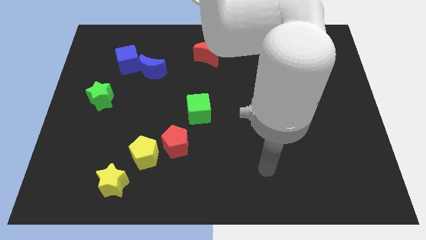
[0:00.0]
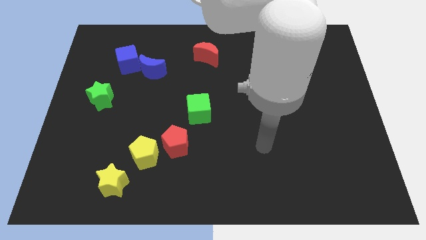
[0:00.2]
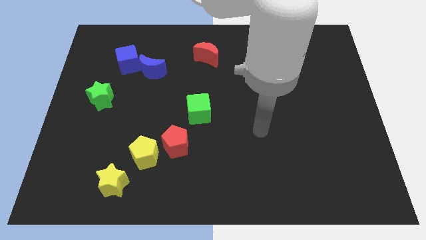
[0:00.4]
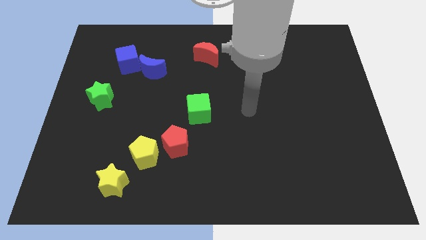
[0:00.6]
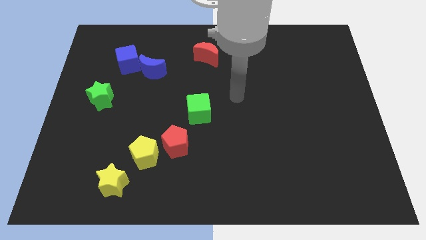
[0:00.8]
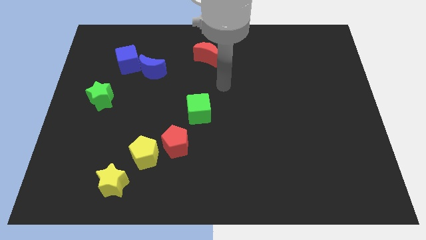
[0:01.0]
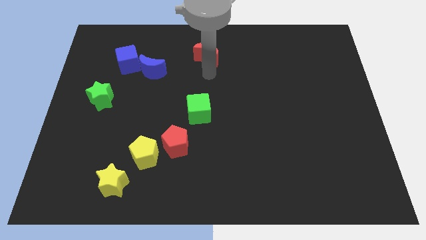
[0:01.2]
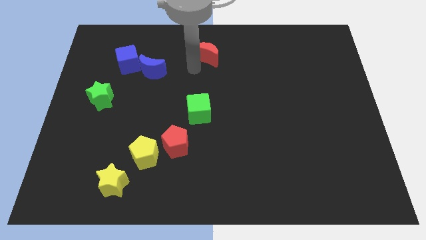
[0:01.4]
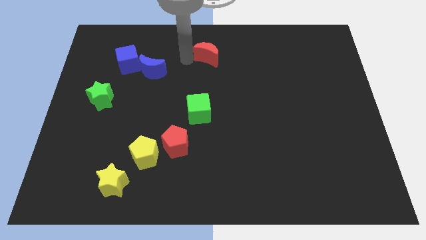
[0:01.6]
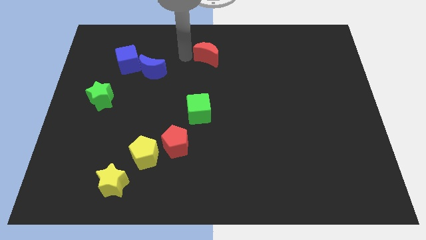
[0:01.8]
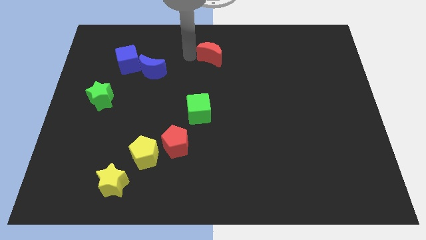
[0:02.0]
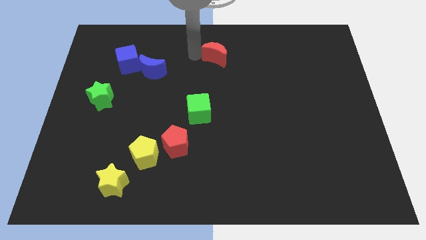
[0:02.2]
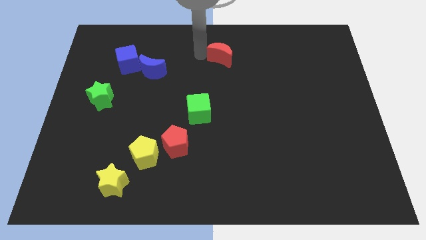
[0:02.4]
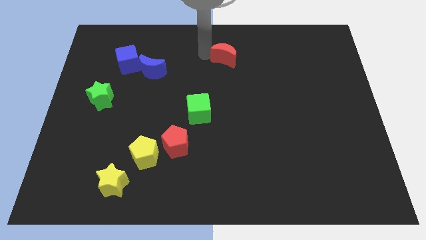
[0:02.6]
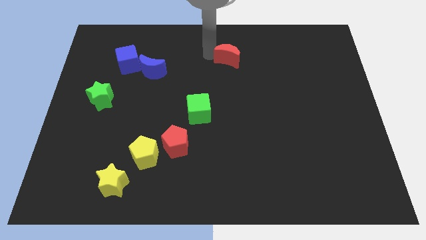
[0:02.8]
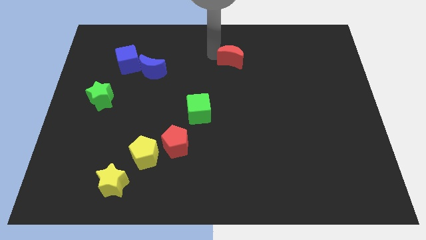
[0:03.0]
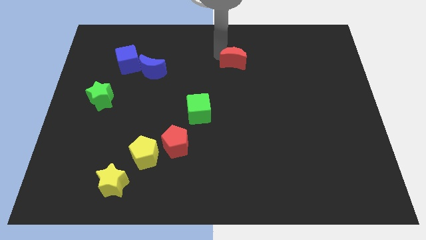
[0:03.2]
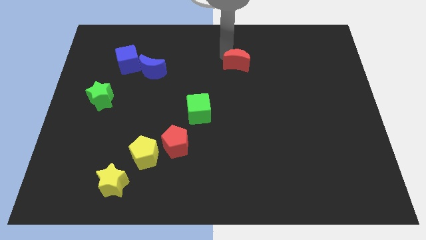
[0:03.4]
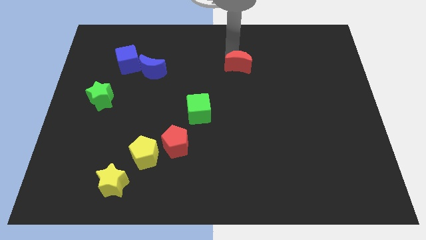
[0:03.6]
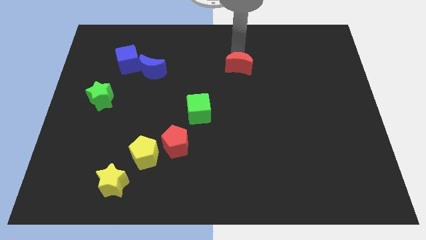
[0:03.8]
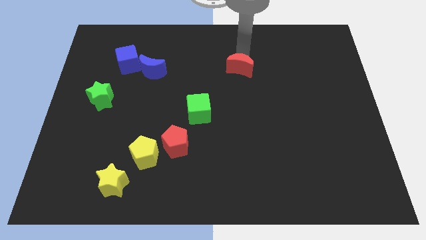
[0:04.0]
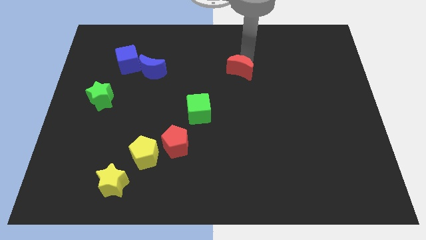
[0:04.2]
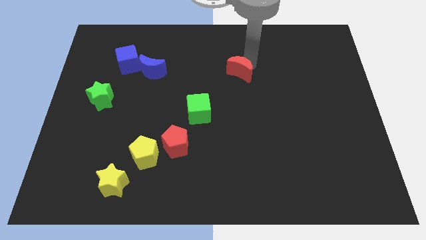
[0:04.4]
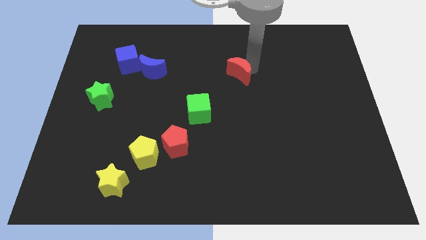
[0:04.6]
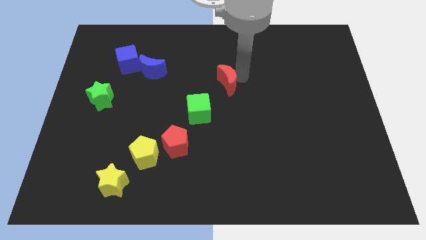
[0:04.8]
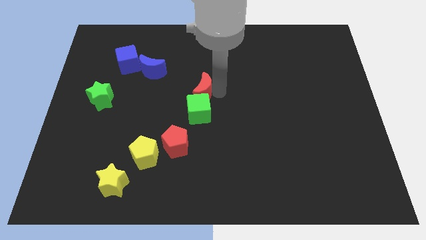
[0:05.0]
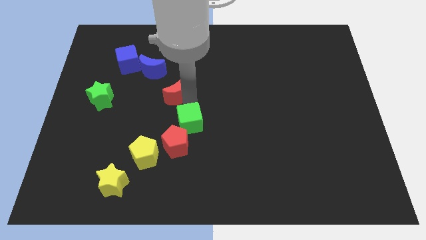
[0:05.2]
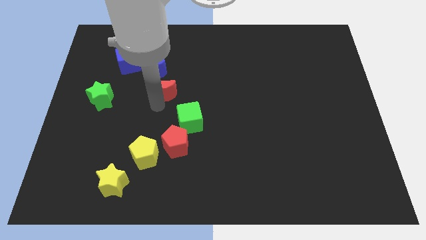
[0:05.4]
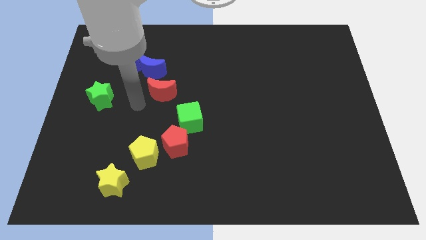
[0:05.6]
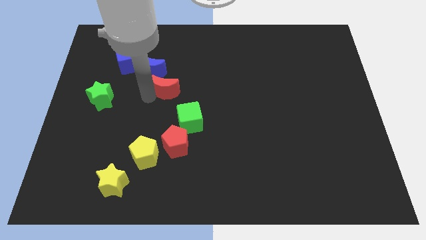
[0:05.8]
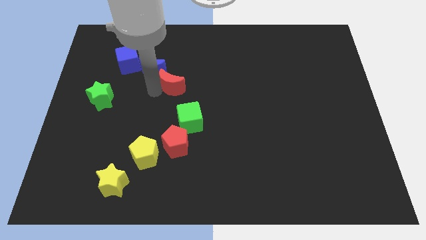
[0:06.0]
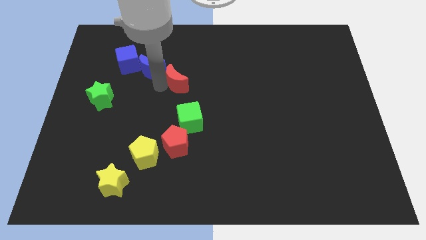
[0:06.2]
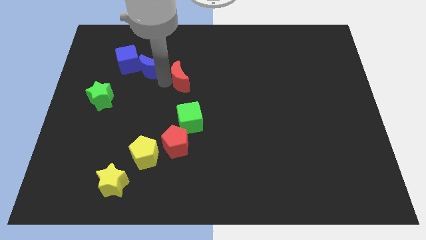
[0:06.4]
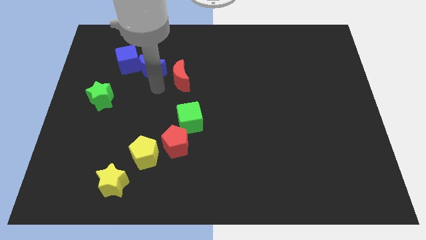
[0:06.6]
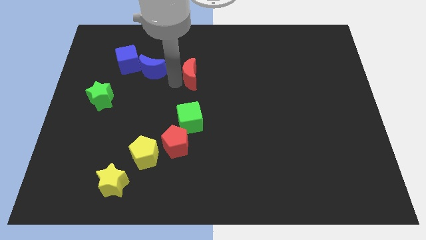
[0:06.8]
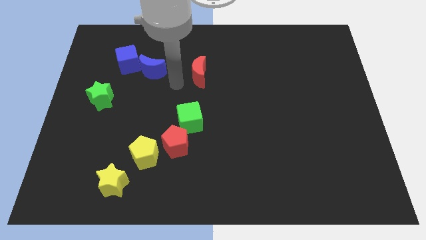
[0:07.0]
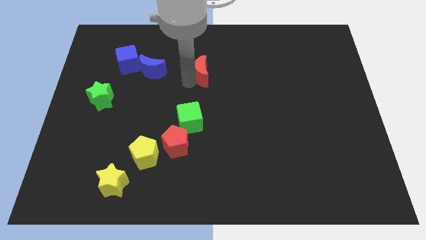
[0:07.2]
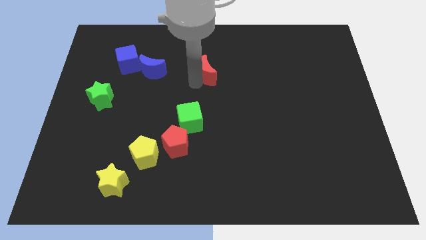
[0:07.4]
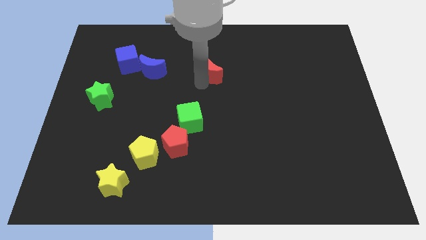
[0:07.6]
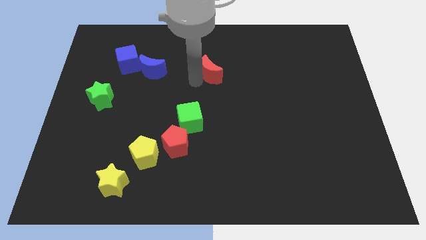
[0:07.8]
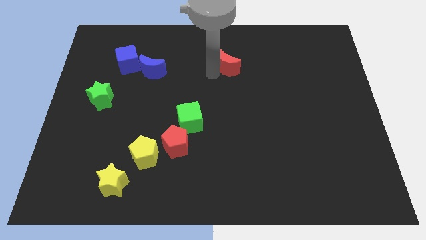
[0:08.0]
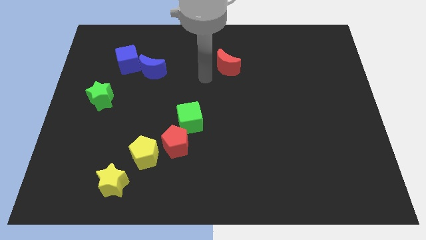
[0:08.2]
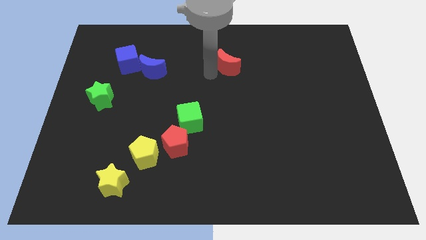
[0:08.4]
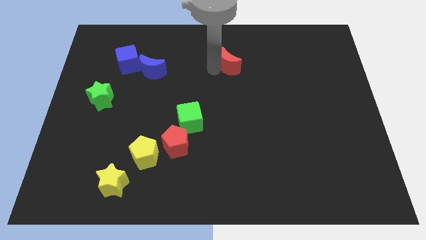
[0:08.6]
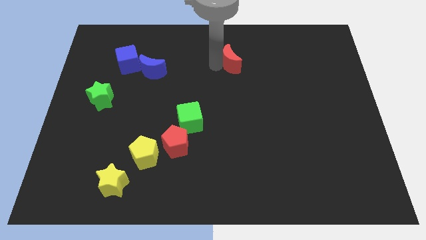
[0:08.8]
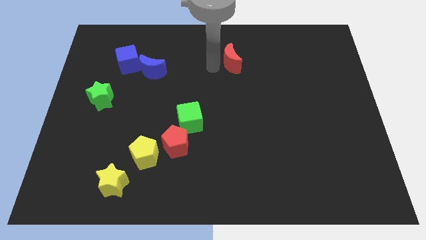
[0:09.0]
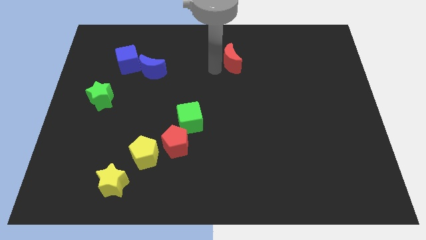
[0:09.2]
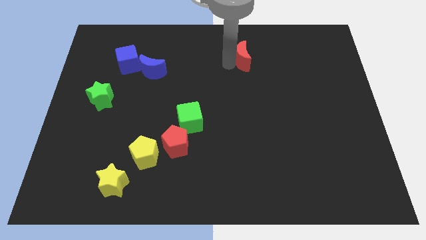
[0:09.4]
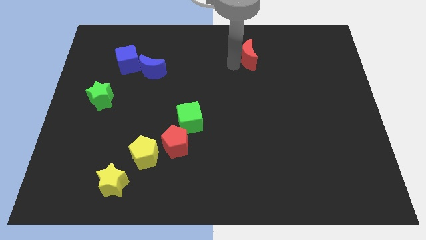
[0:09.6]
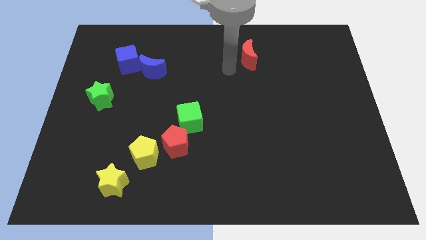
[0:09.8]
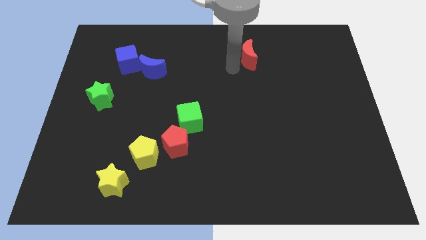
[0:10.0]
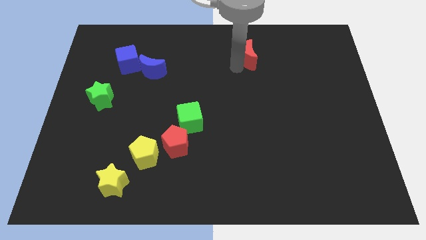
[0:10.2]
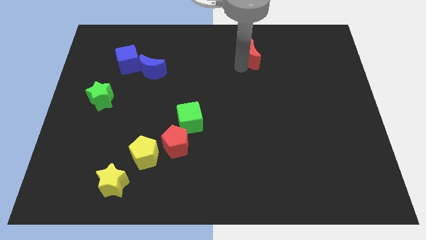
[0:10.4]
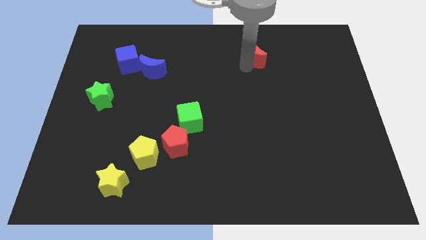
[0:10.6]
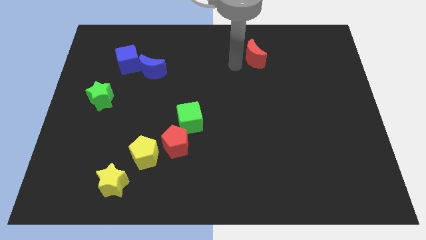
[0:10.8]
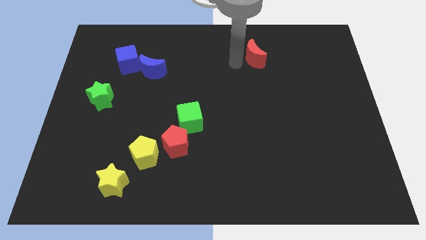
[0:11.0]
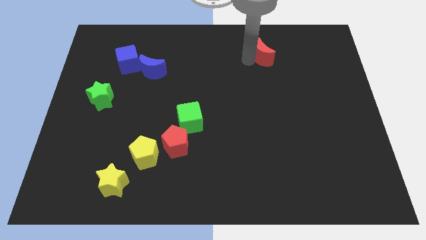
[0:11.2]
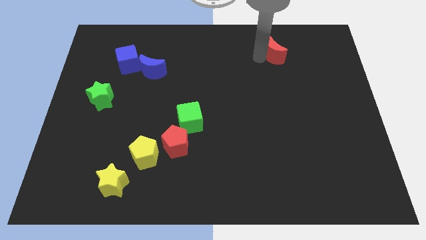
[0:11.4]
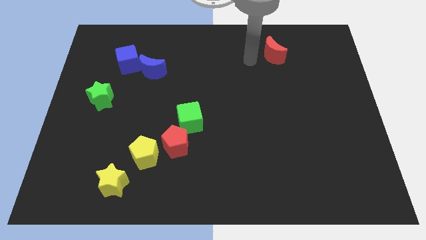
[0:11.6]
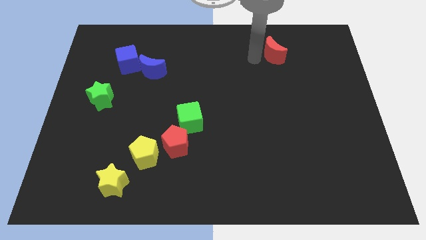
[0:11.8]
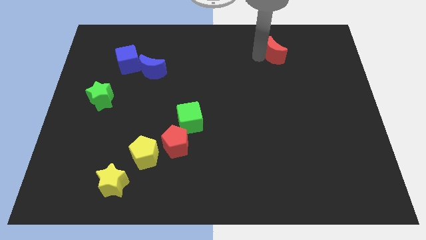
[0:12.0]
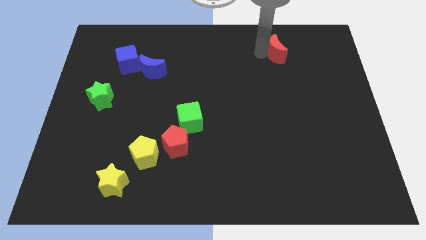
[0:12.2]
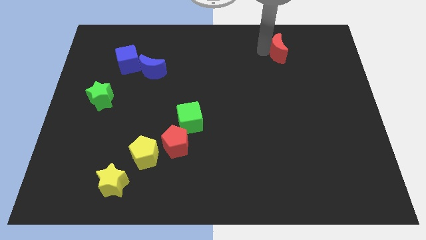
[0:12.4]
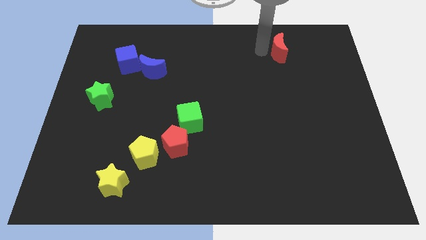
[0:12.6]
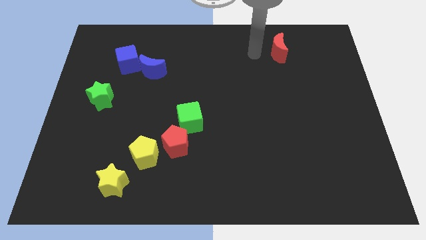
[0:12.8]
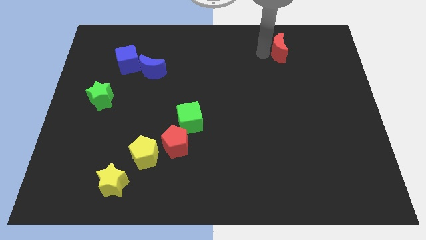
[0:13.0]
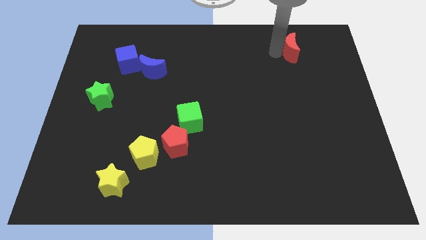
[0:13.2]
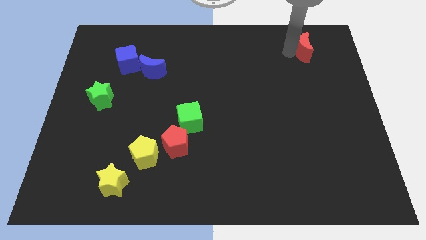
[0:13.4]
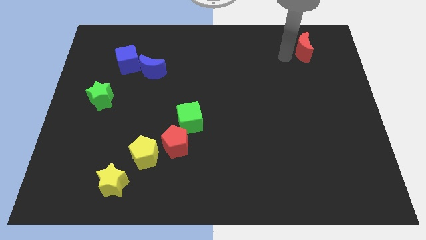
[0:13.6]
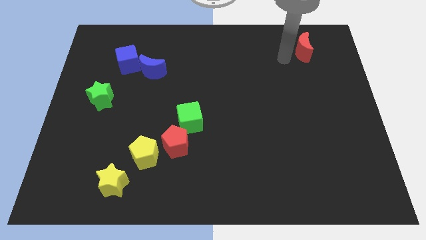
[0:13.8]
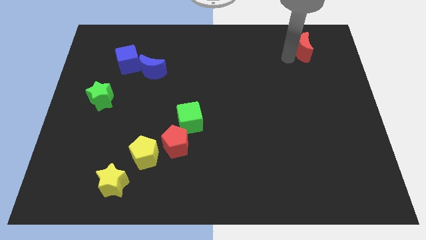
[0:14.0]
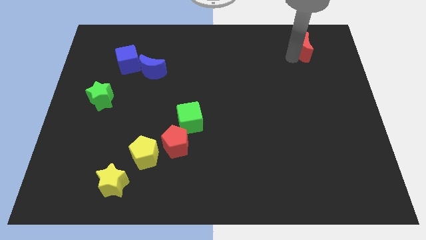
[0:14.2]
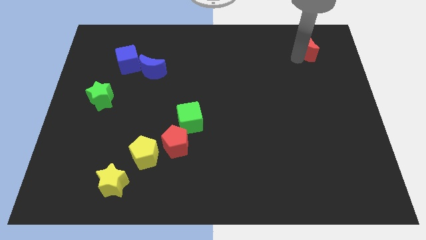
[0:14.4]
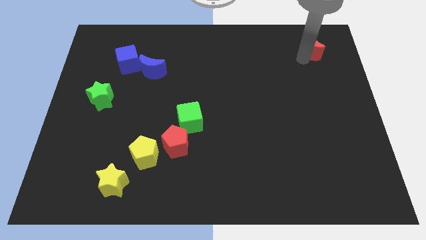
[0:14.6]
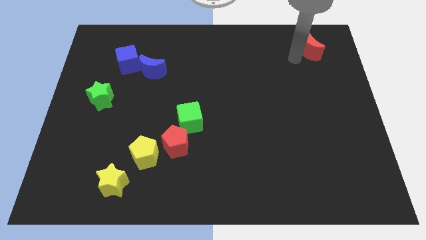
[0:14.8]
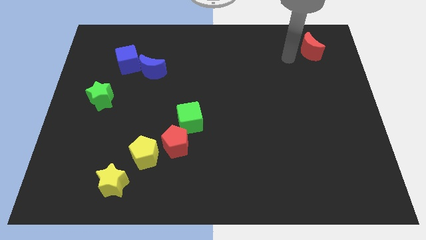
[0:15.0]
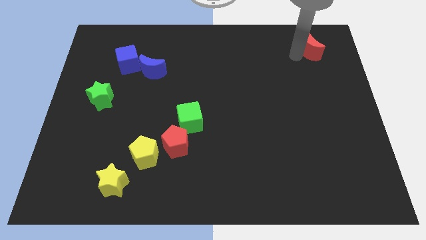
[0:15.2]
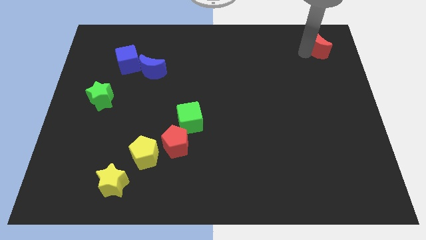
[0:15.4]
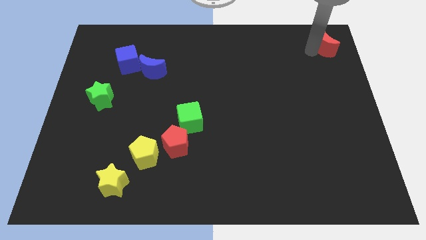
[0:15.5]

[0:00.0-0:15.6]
move the red moon to the top right of the board

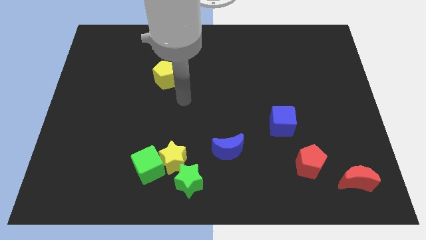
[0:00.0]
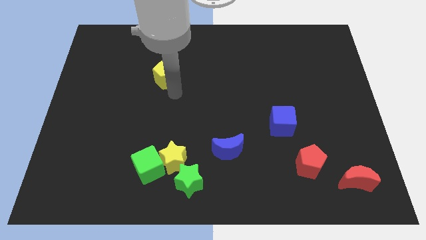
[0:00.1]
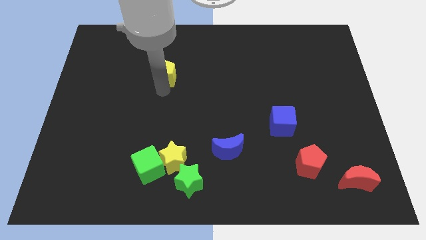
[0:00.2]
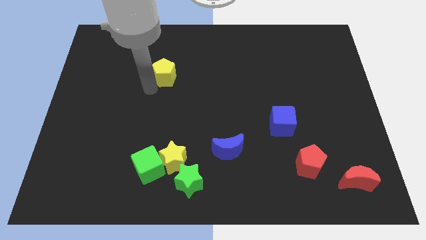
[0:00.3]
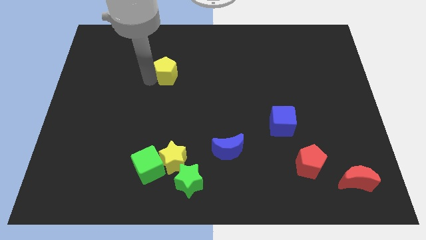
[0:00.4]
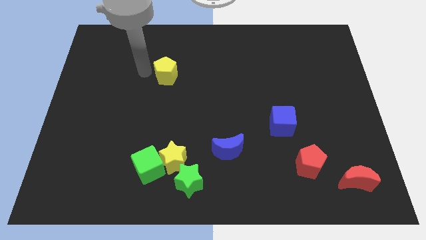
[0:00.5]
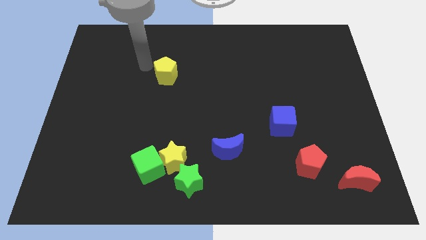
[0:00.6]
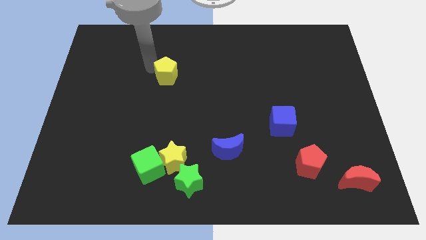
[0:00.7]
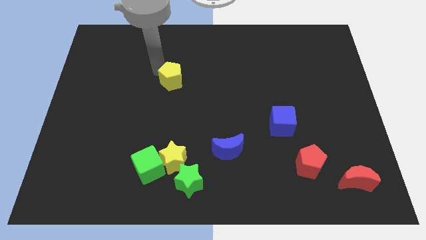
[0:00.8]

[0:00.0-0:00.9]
slide the yellow pentagon to the middle
